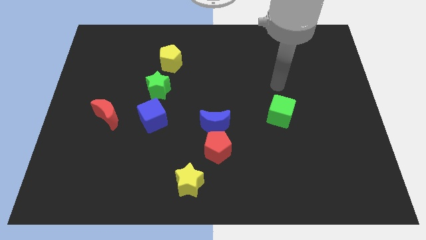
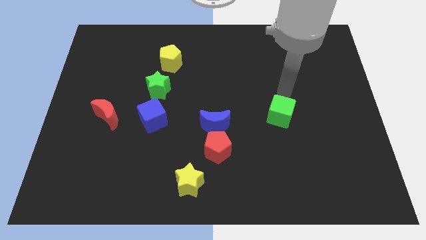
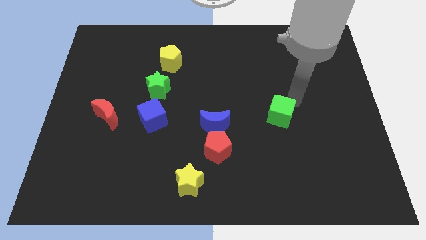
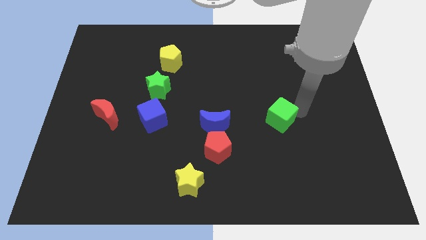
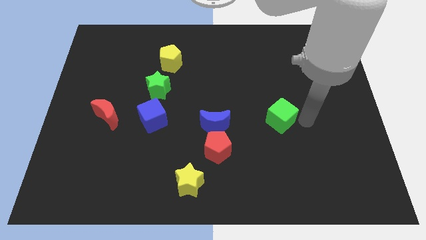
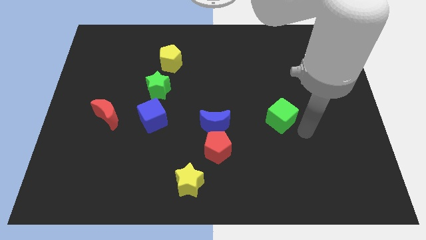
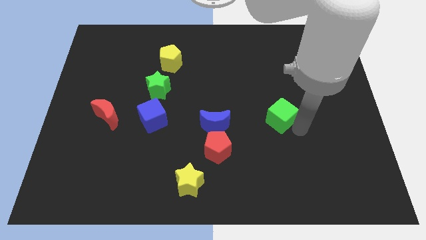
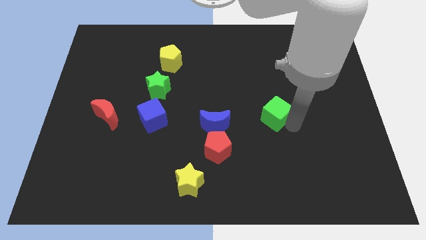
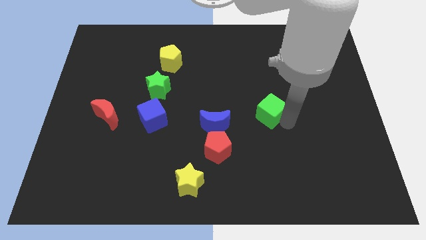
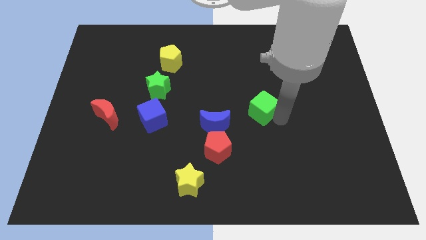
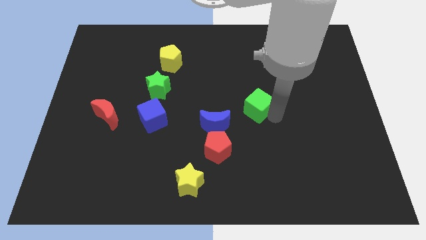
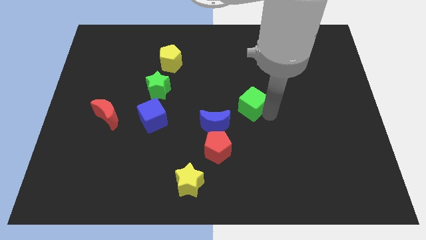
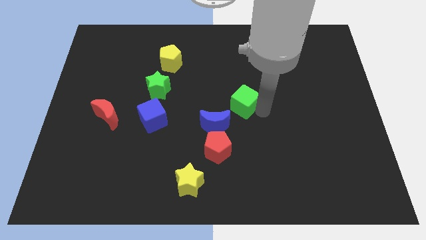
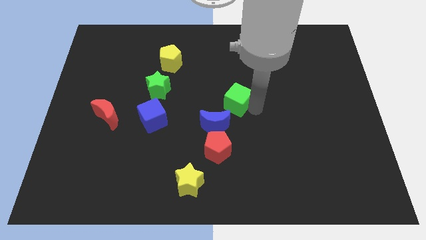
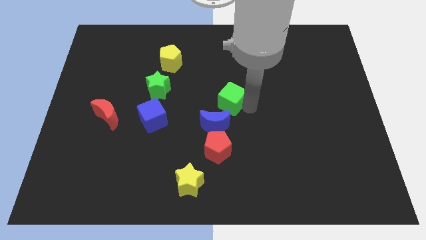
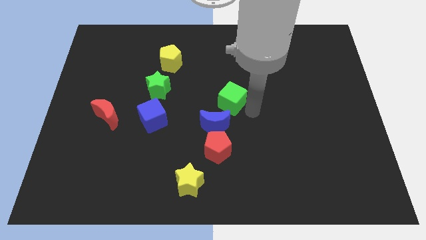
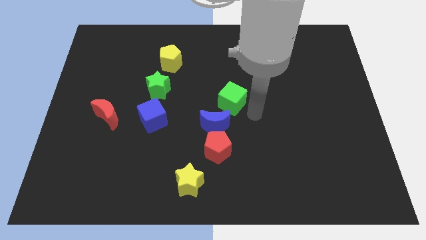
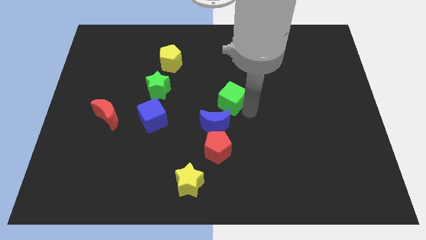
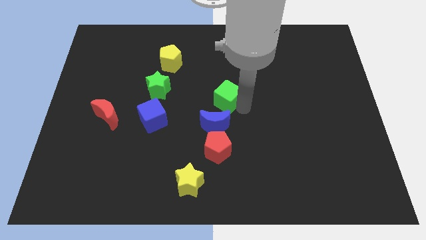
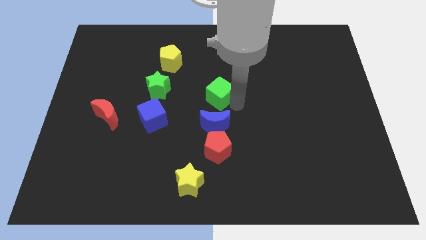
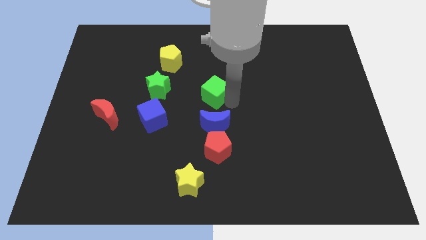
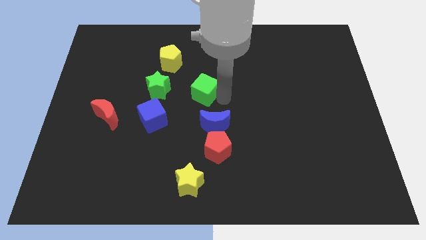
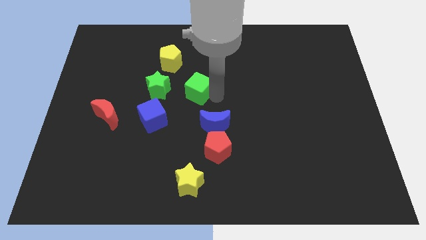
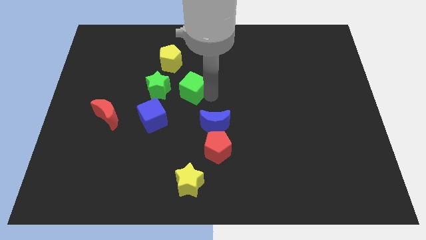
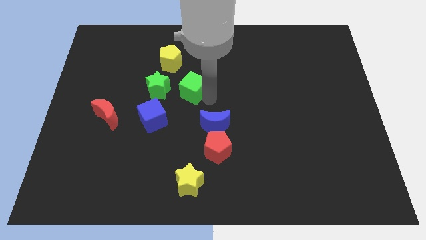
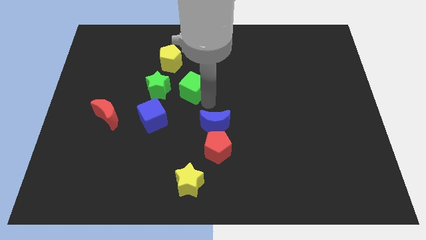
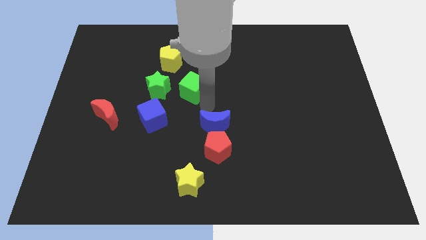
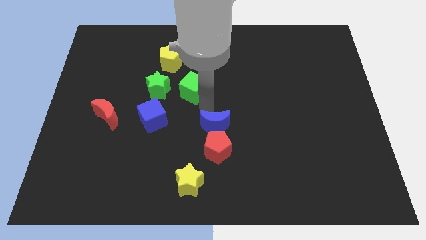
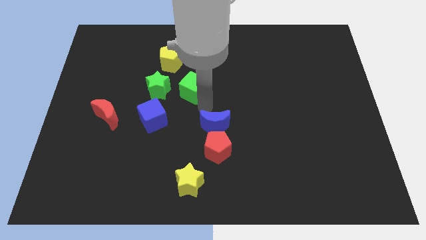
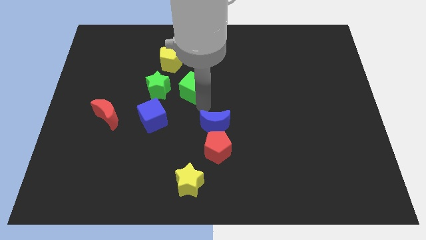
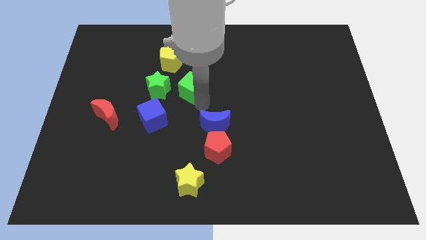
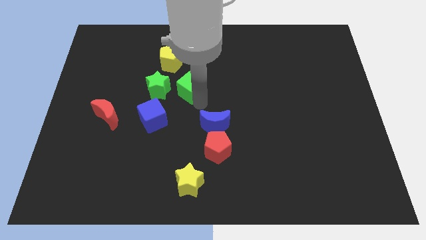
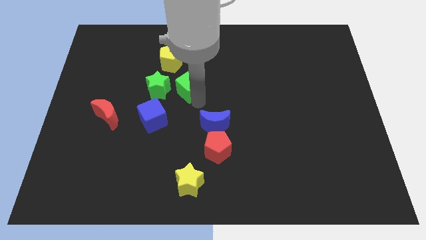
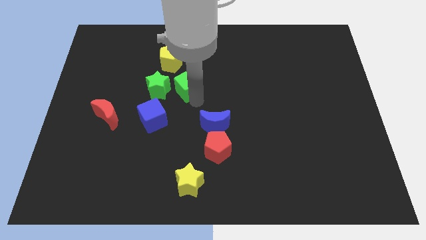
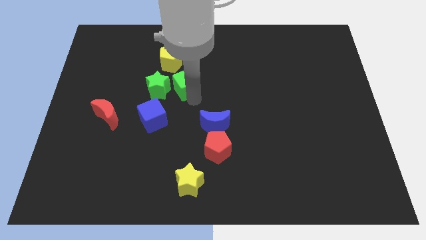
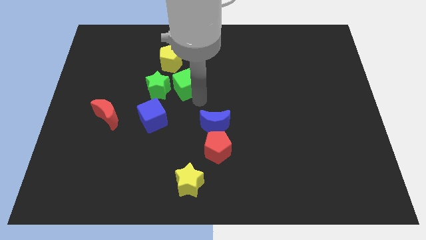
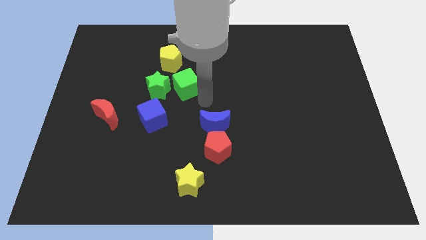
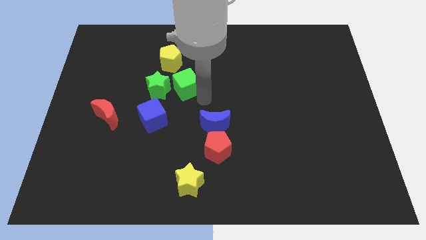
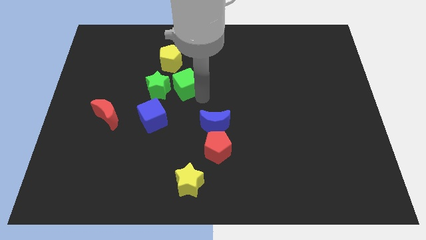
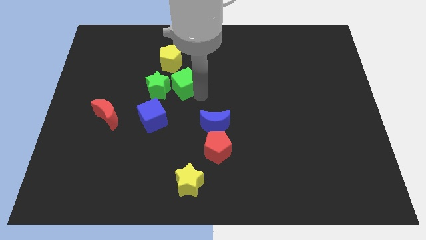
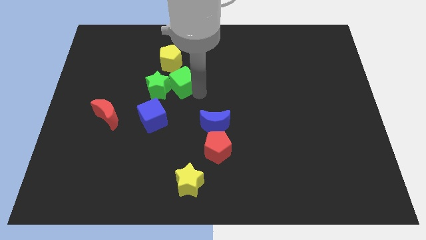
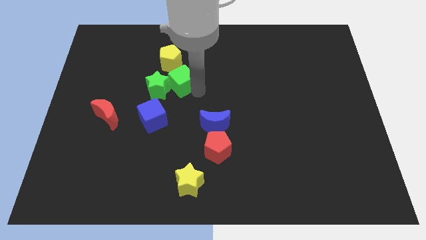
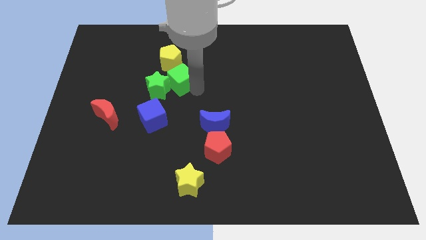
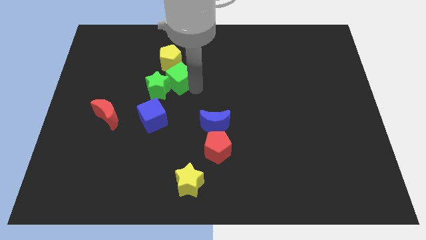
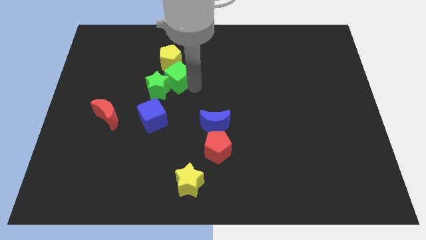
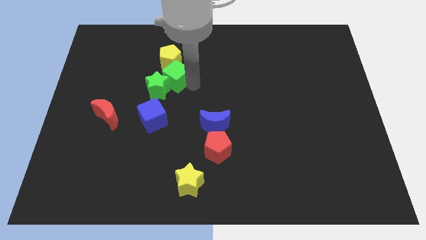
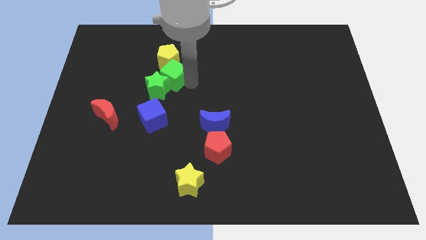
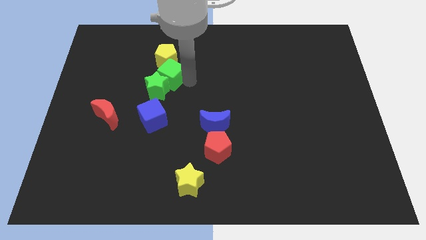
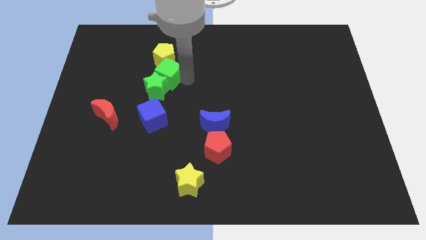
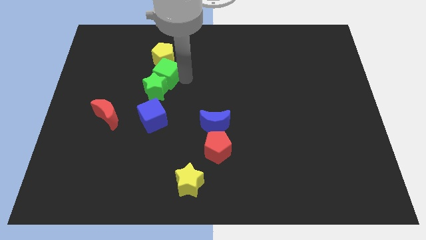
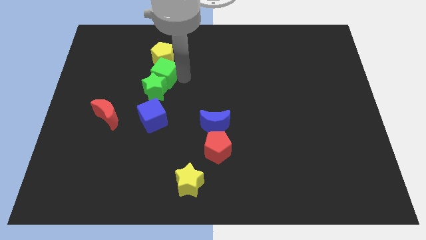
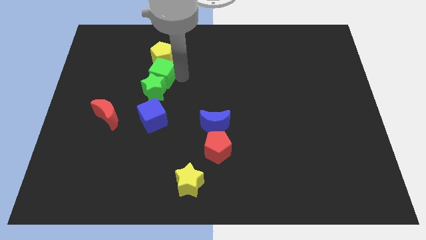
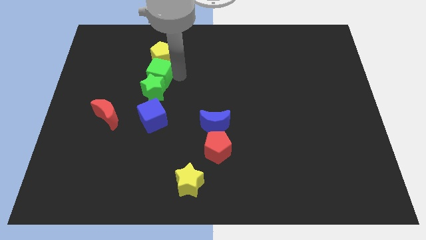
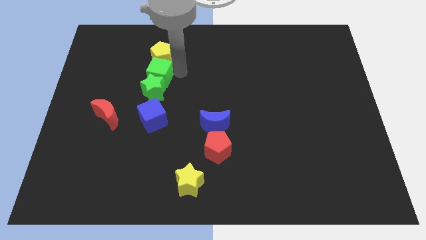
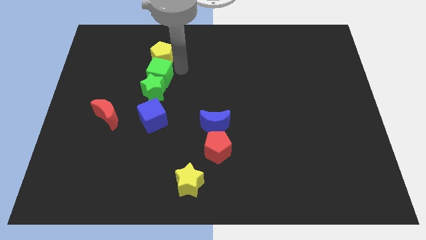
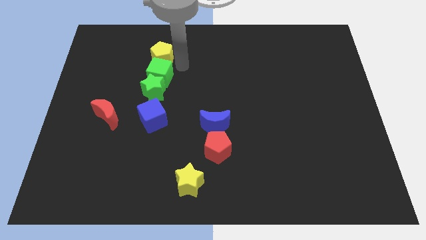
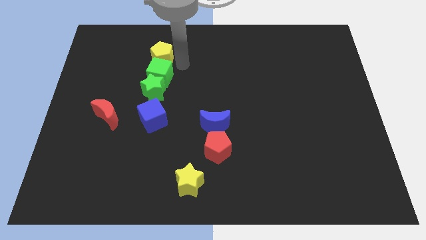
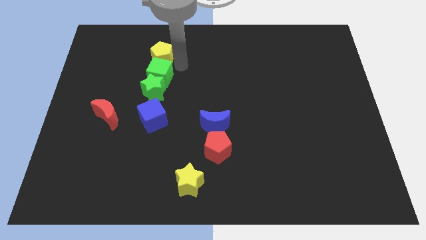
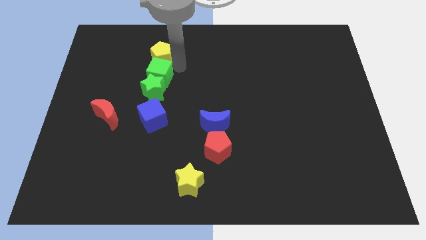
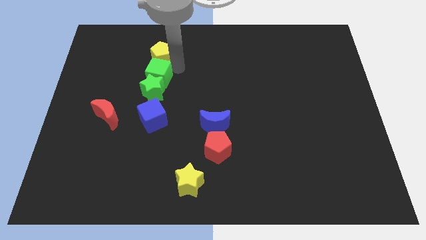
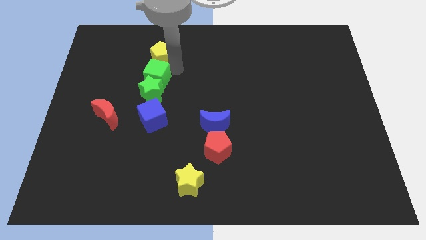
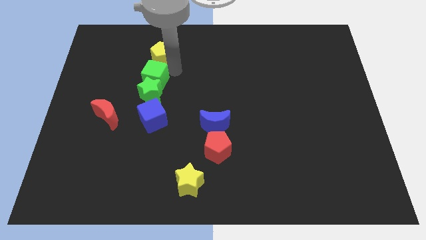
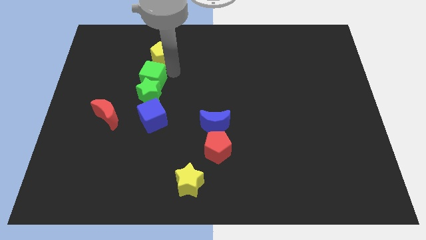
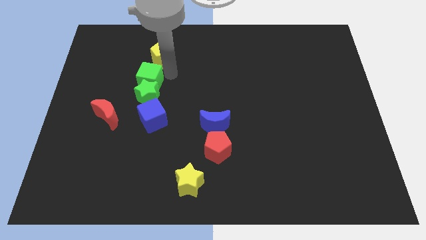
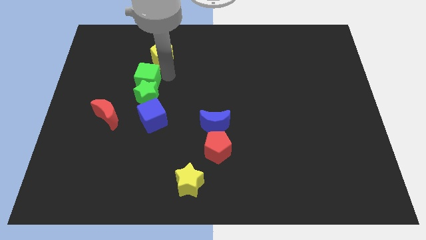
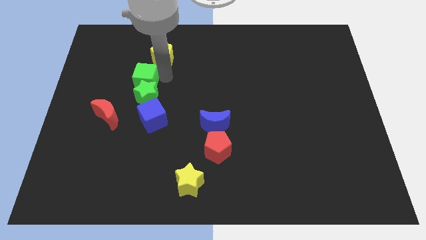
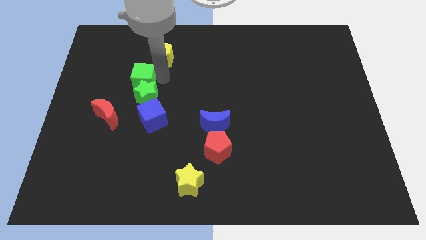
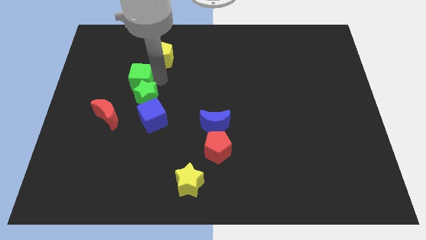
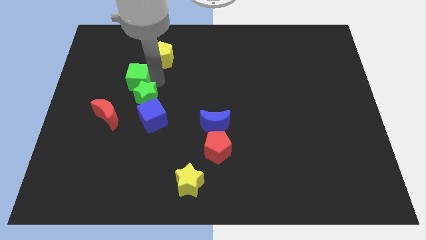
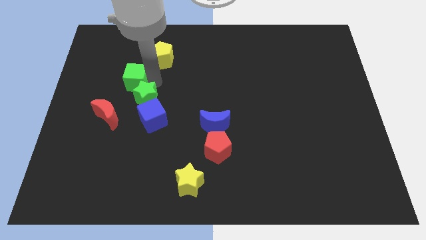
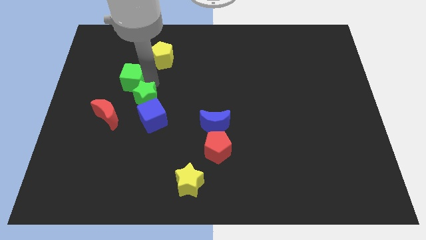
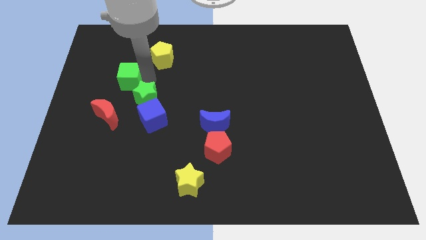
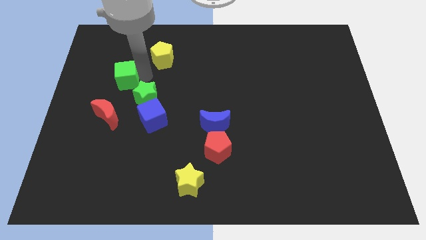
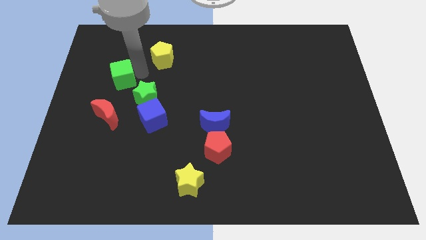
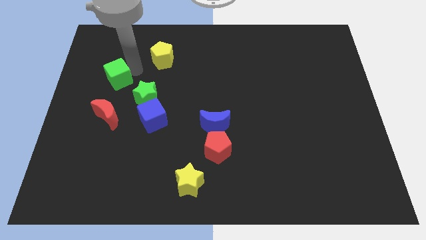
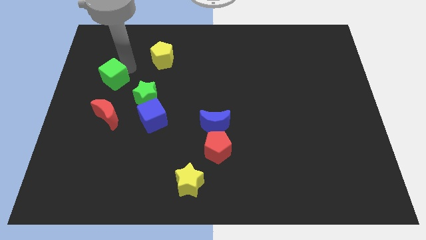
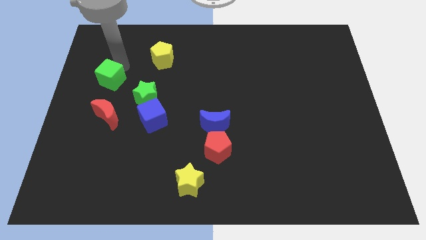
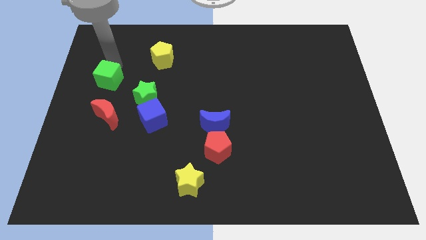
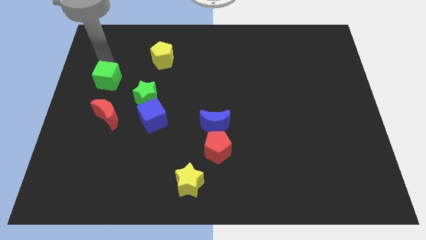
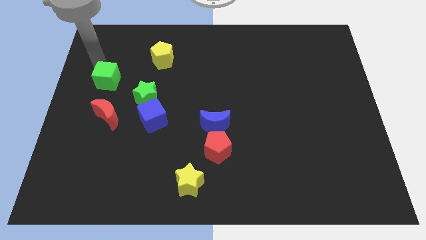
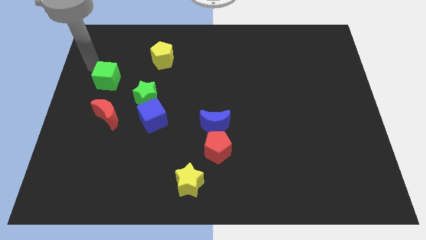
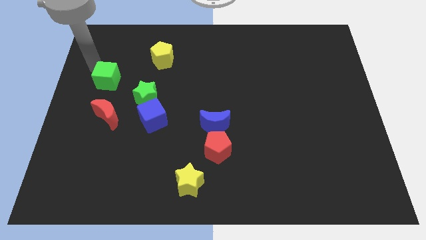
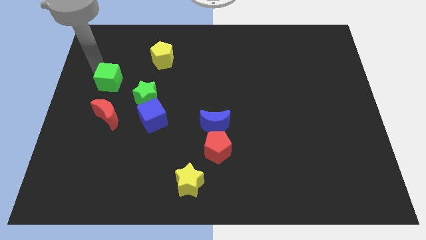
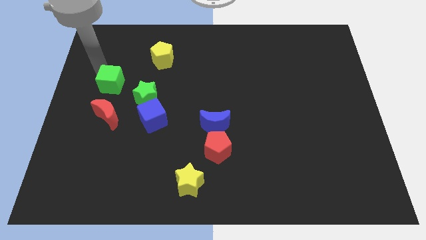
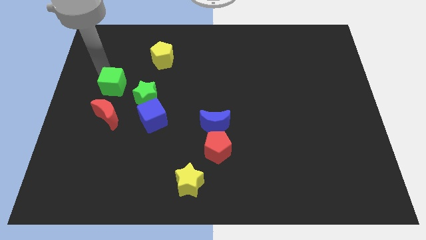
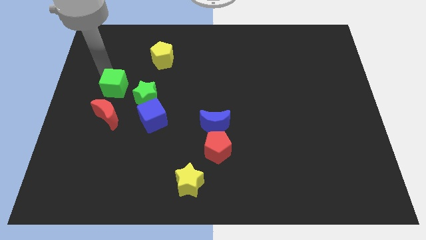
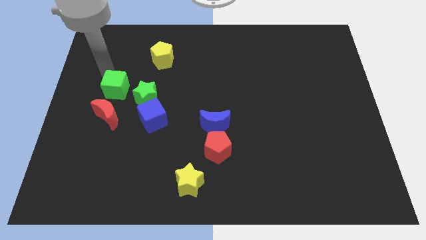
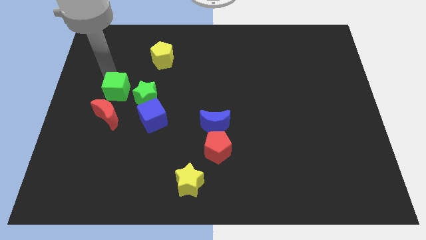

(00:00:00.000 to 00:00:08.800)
move the green cube diagonally up and to the left of the blue cube
